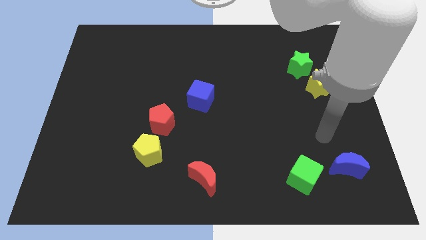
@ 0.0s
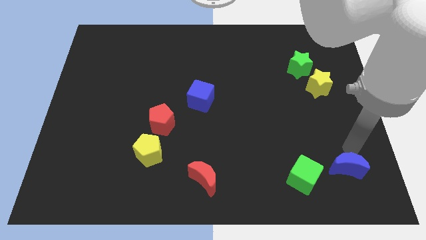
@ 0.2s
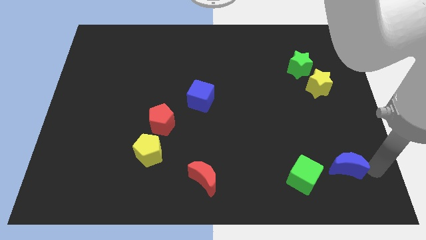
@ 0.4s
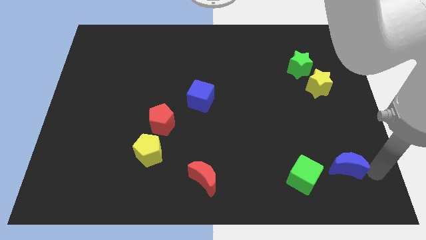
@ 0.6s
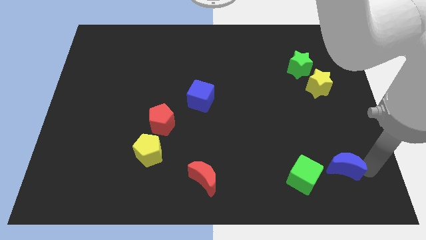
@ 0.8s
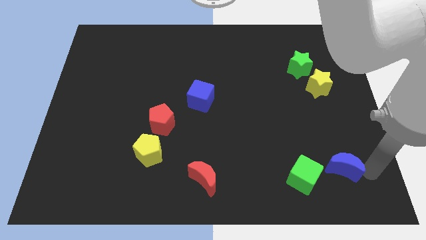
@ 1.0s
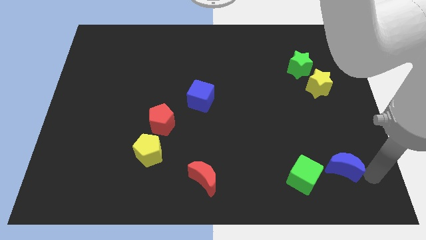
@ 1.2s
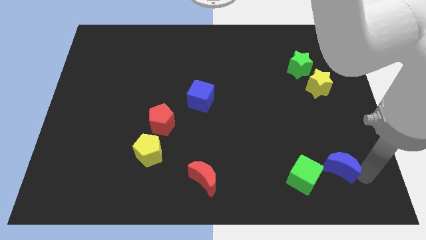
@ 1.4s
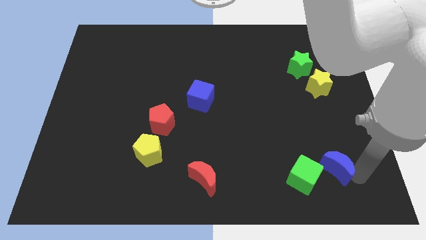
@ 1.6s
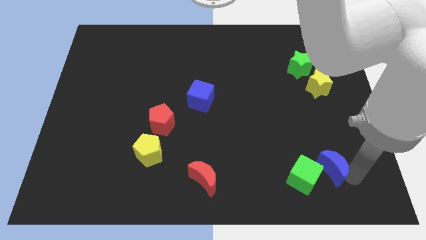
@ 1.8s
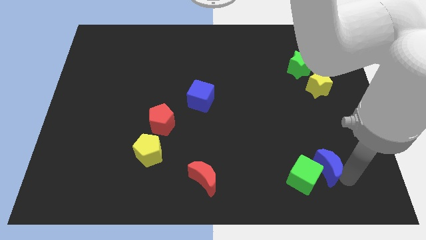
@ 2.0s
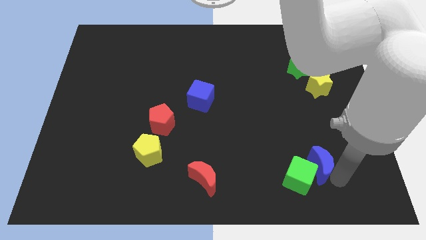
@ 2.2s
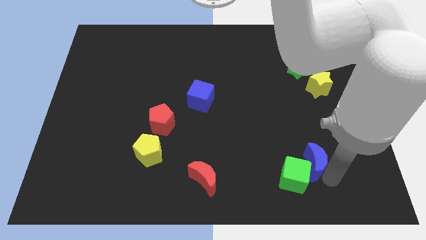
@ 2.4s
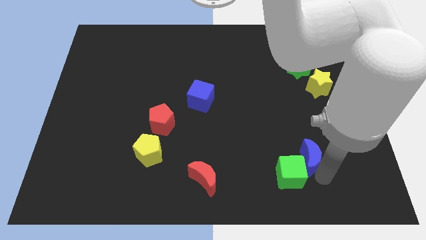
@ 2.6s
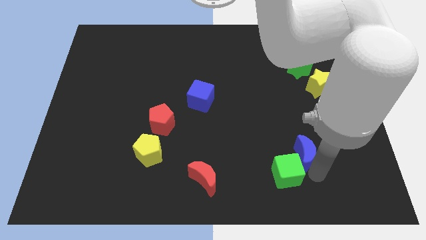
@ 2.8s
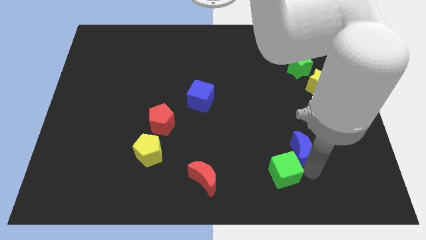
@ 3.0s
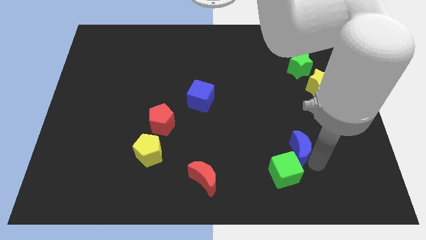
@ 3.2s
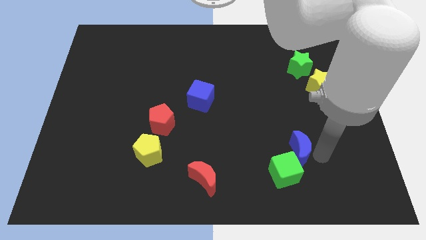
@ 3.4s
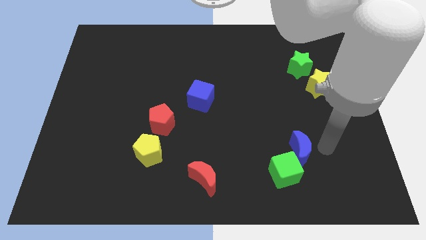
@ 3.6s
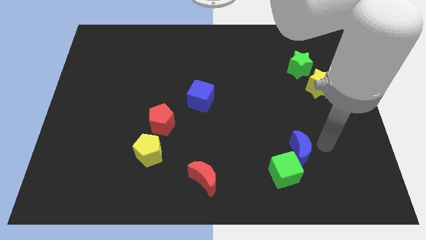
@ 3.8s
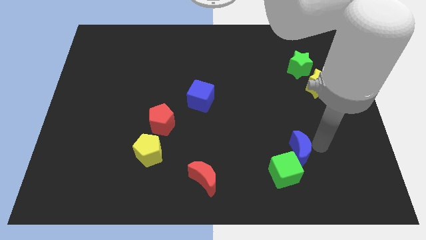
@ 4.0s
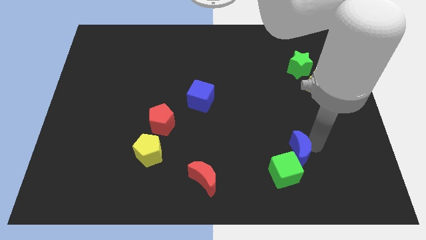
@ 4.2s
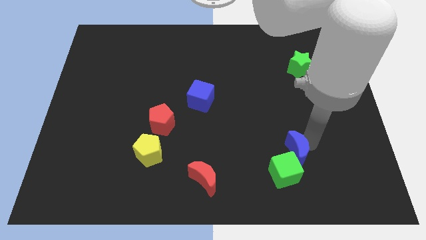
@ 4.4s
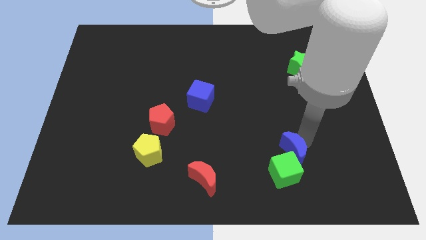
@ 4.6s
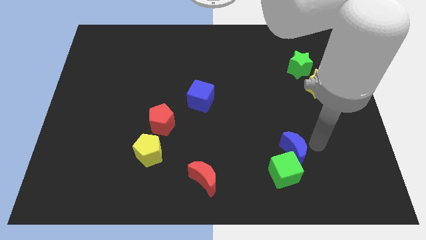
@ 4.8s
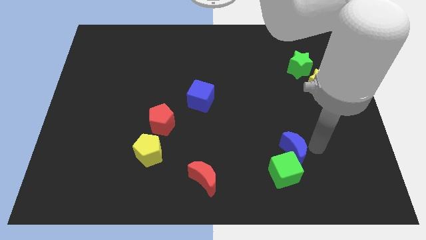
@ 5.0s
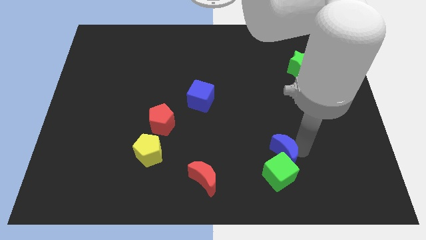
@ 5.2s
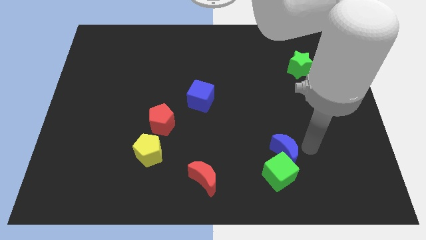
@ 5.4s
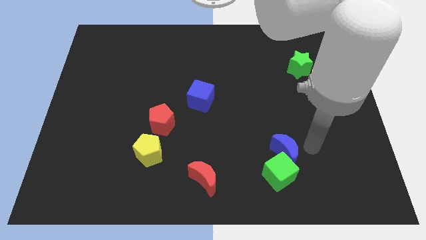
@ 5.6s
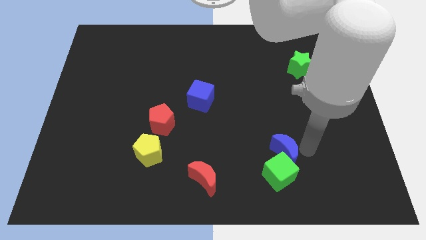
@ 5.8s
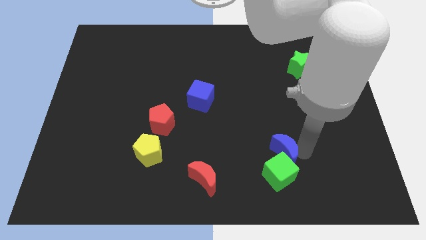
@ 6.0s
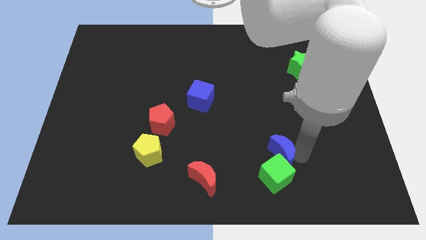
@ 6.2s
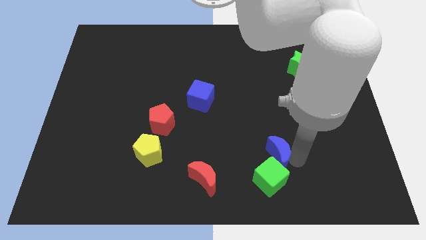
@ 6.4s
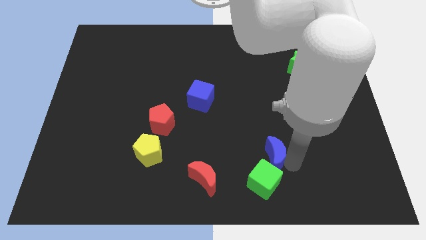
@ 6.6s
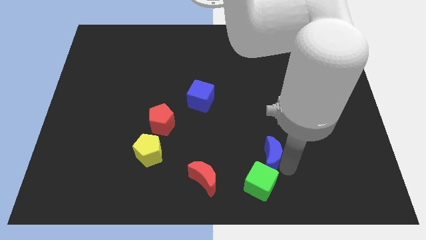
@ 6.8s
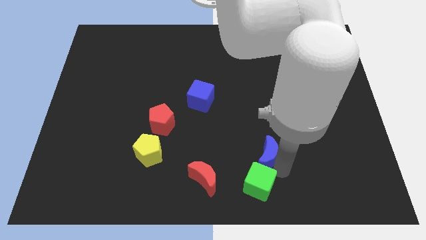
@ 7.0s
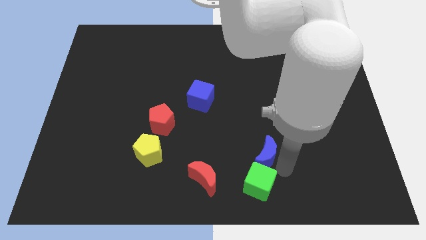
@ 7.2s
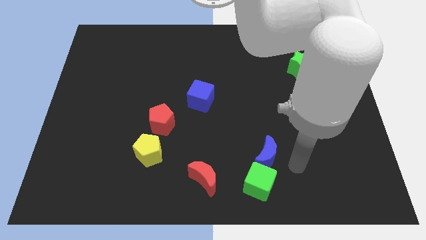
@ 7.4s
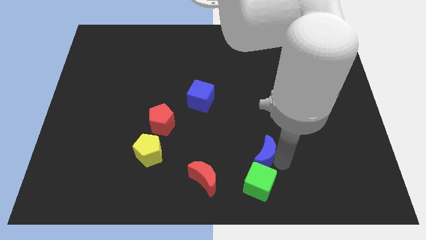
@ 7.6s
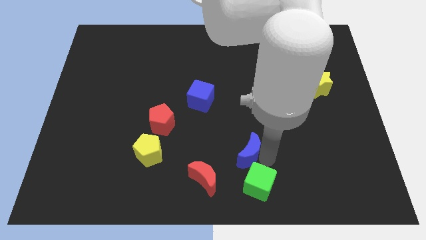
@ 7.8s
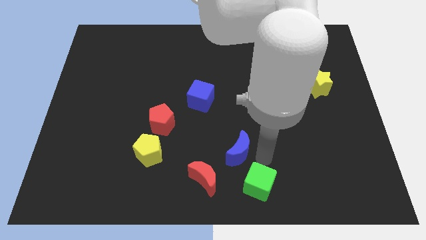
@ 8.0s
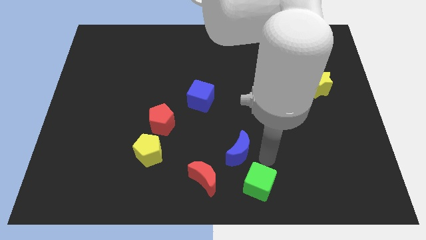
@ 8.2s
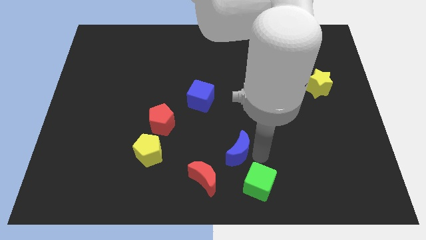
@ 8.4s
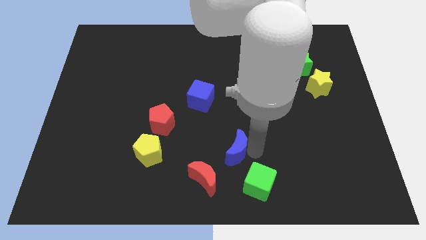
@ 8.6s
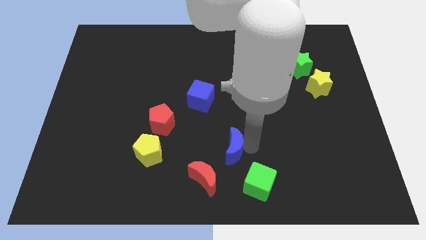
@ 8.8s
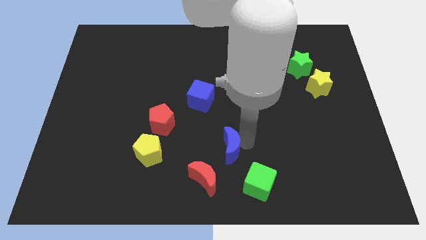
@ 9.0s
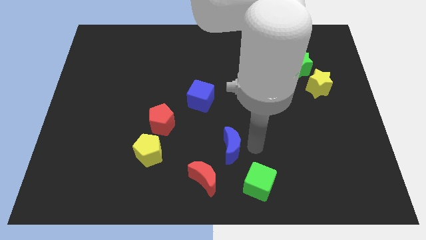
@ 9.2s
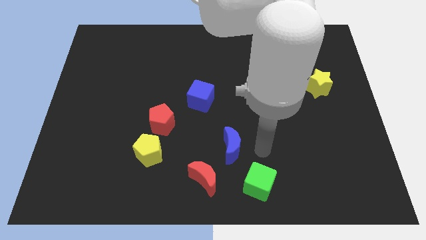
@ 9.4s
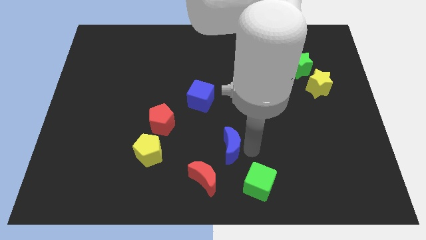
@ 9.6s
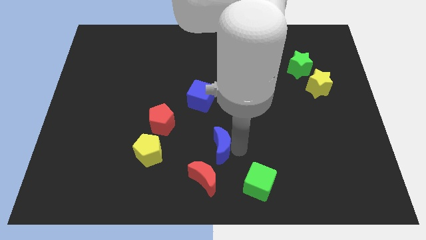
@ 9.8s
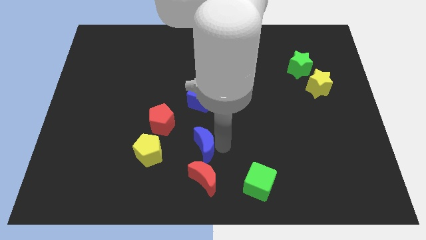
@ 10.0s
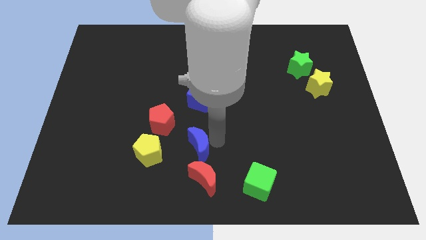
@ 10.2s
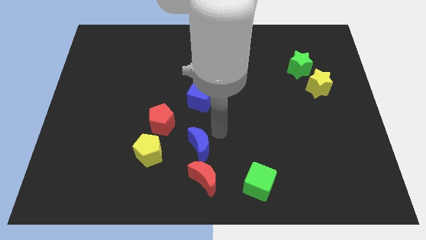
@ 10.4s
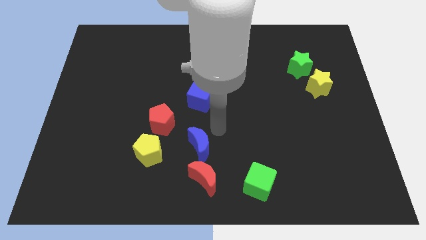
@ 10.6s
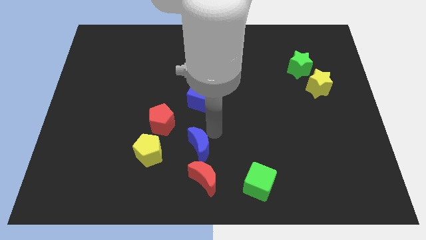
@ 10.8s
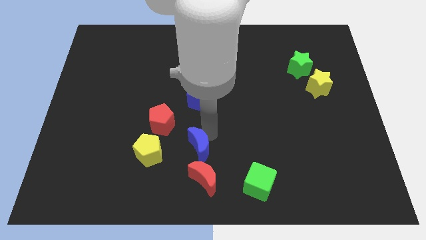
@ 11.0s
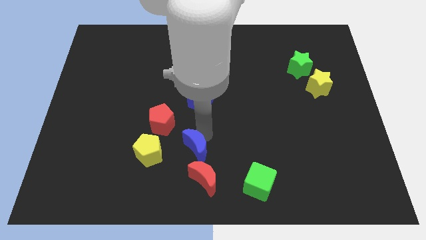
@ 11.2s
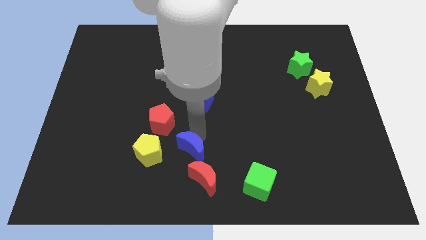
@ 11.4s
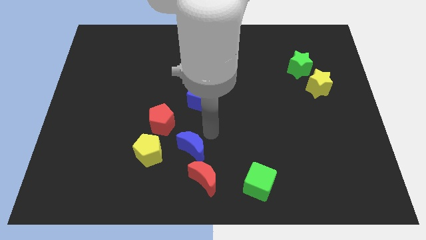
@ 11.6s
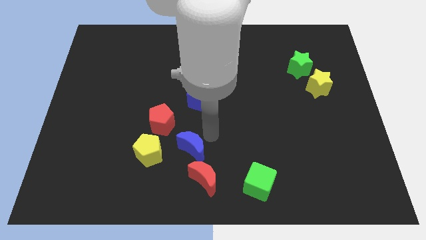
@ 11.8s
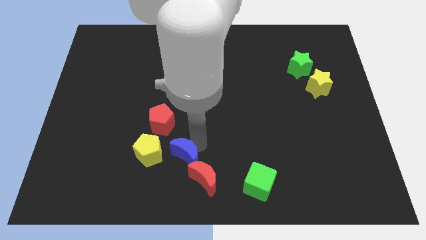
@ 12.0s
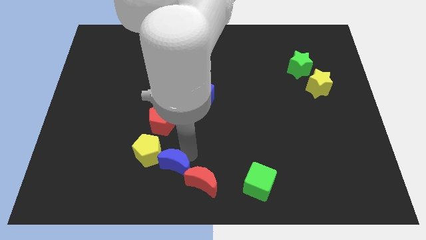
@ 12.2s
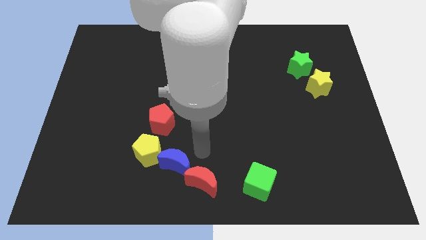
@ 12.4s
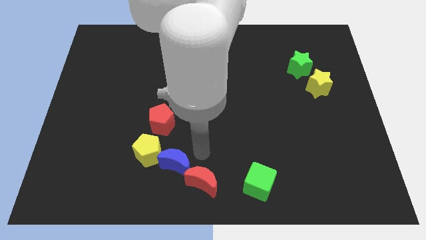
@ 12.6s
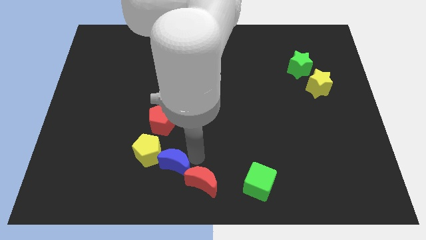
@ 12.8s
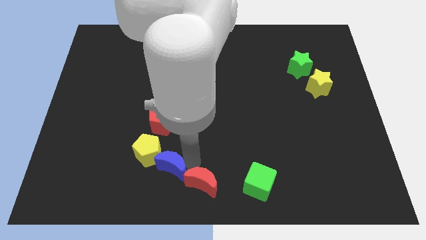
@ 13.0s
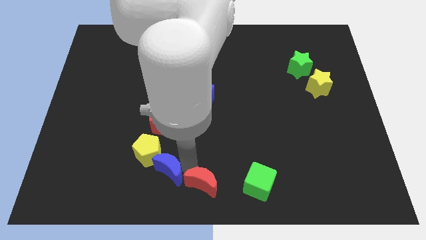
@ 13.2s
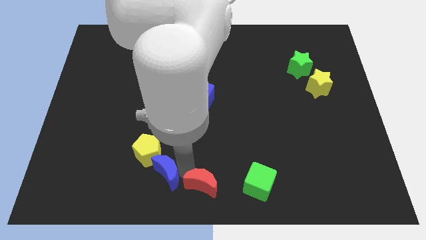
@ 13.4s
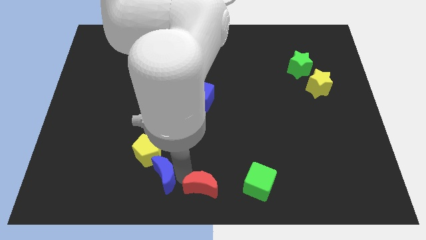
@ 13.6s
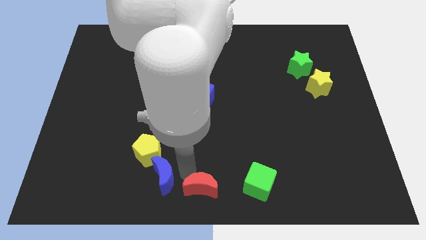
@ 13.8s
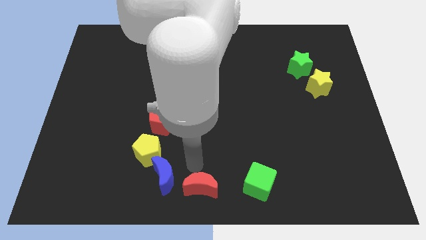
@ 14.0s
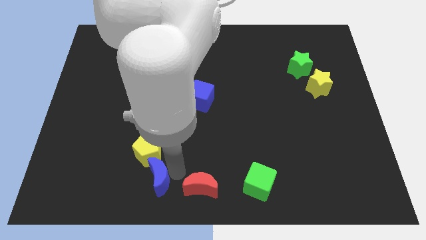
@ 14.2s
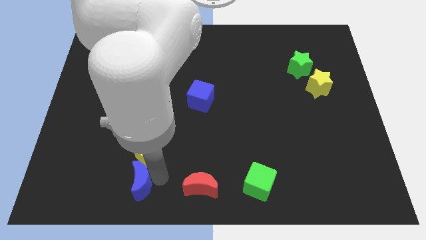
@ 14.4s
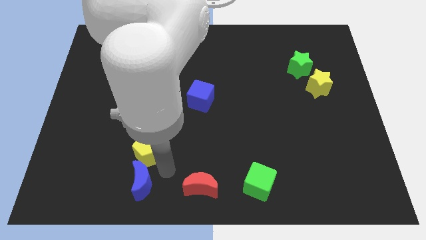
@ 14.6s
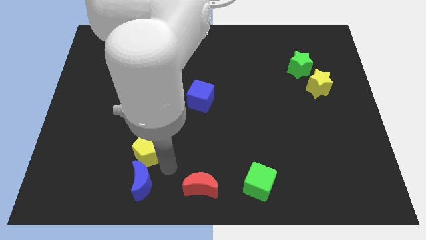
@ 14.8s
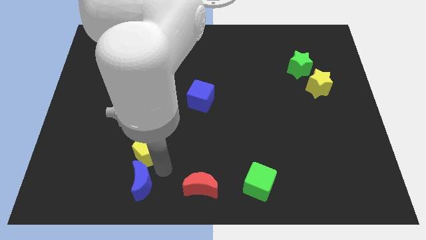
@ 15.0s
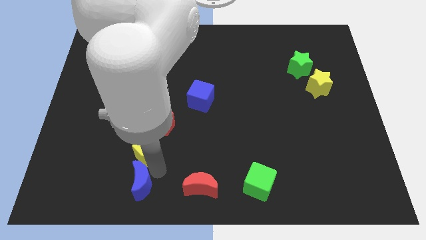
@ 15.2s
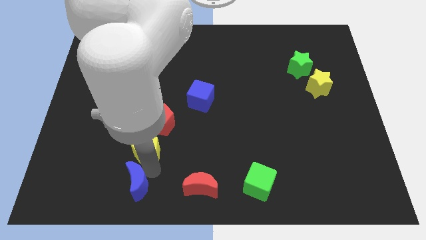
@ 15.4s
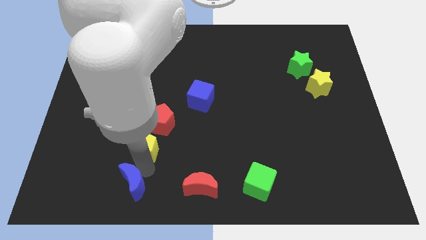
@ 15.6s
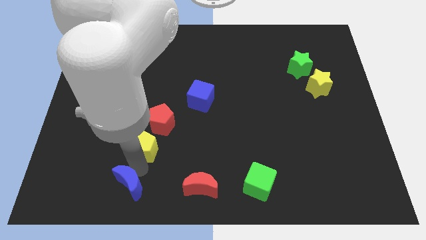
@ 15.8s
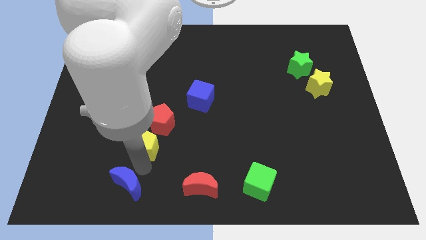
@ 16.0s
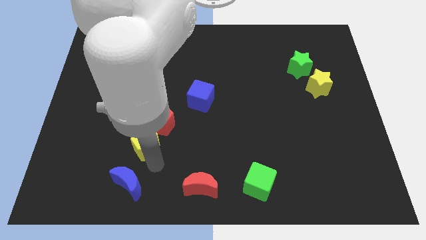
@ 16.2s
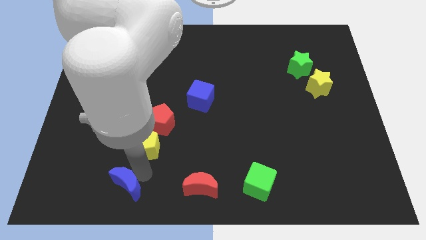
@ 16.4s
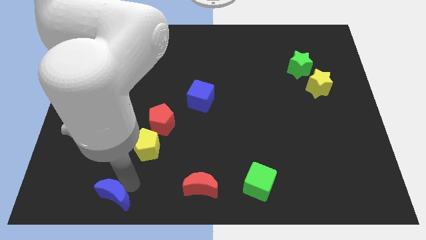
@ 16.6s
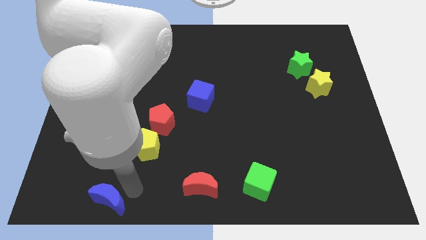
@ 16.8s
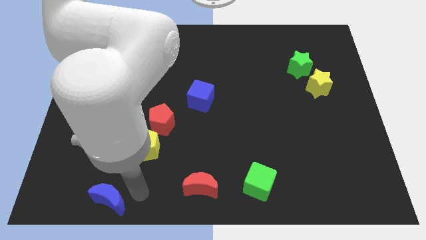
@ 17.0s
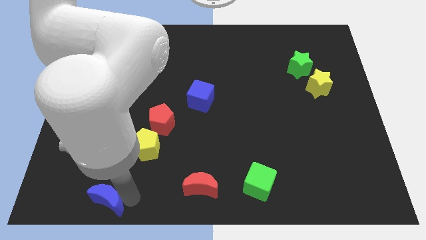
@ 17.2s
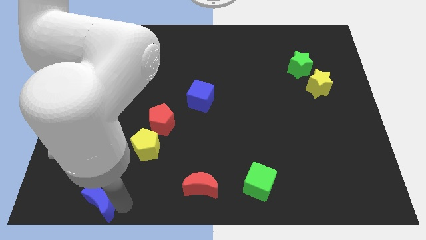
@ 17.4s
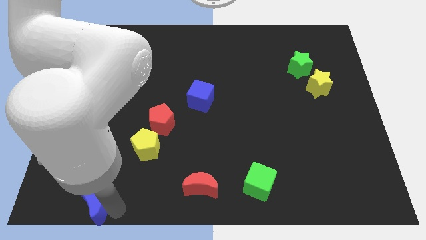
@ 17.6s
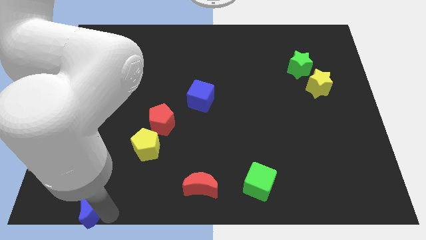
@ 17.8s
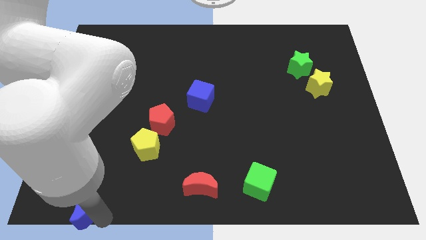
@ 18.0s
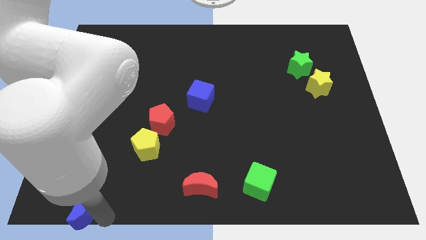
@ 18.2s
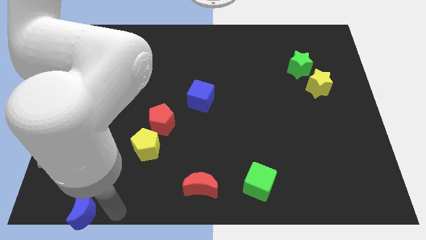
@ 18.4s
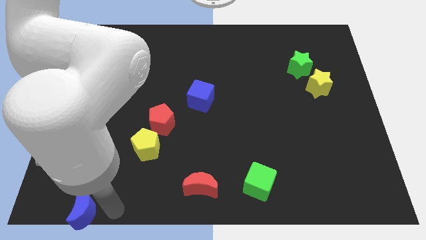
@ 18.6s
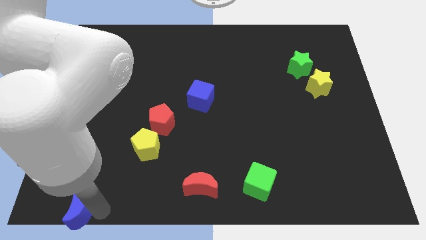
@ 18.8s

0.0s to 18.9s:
move the blue moon to the bottom left
